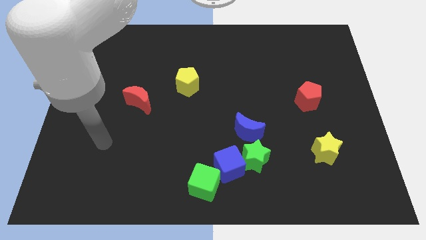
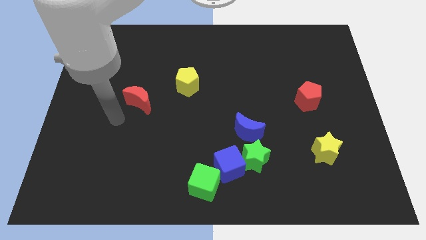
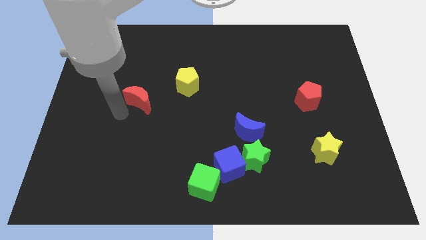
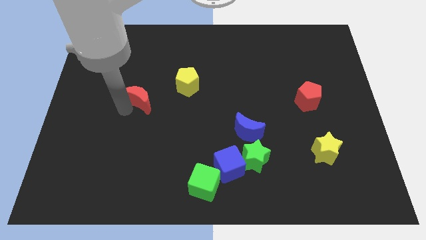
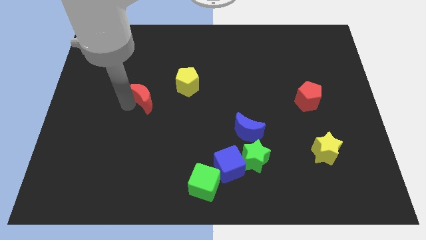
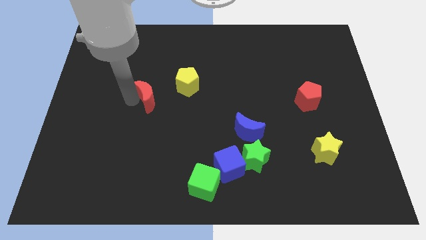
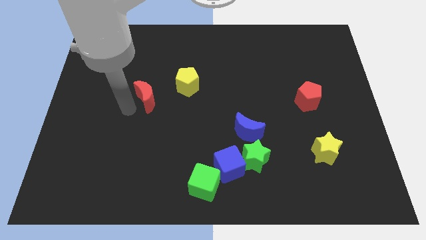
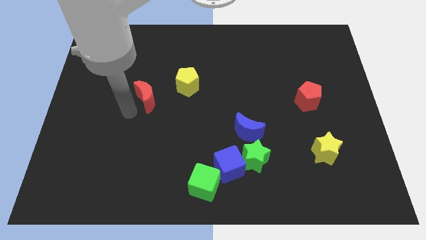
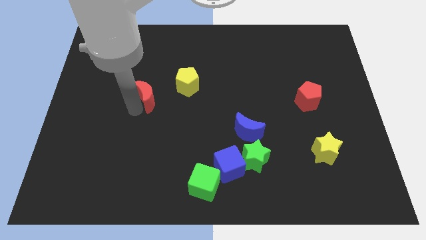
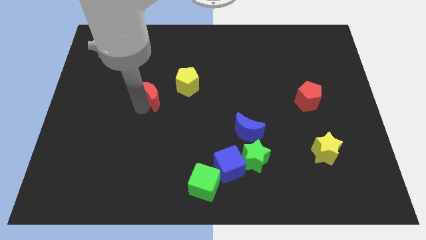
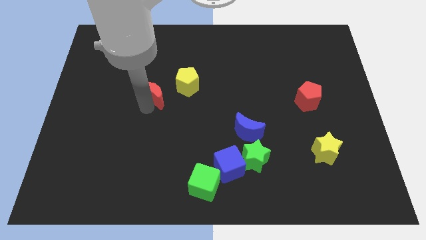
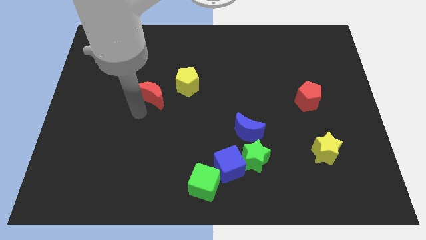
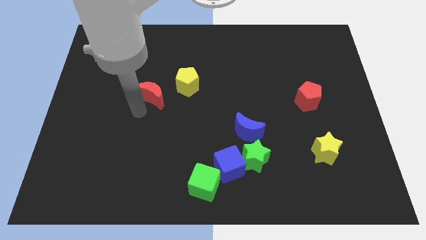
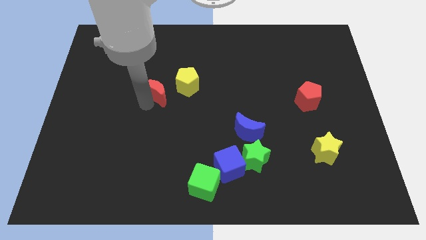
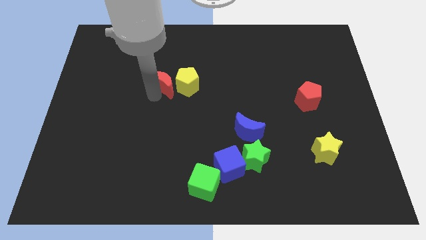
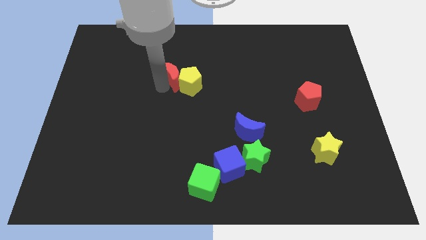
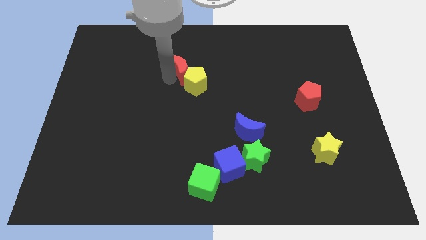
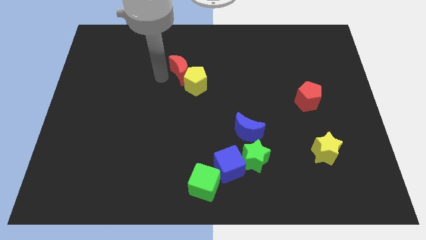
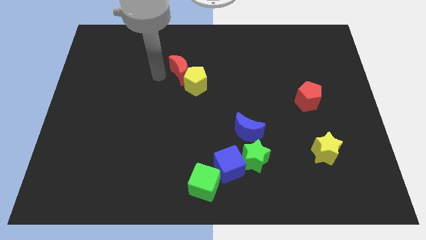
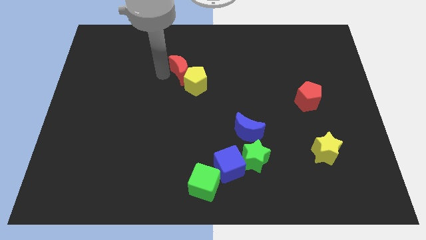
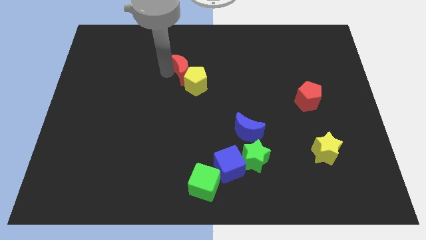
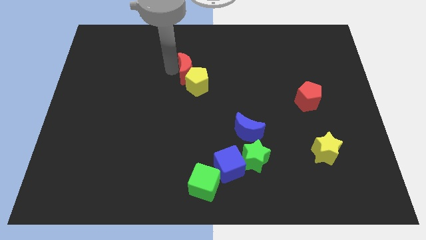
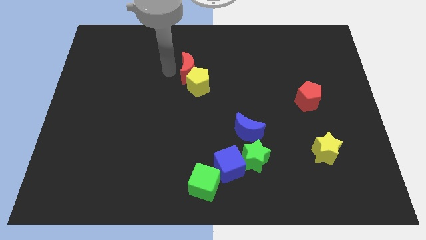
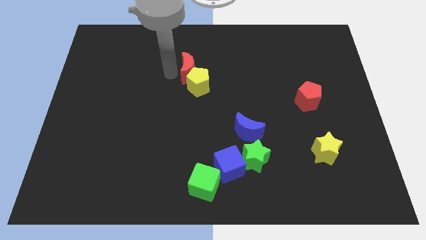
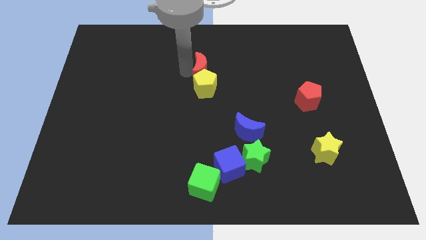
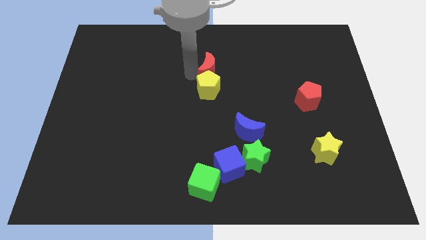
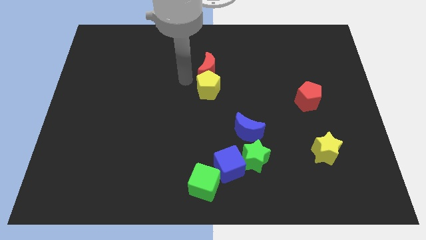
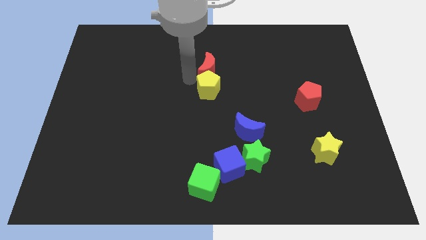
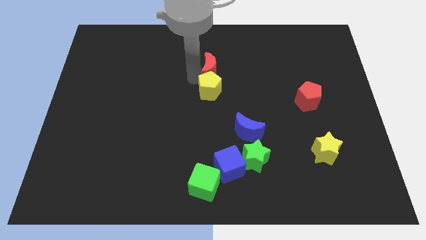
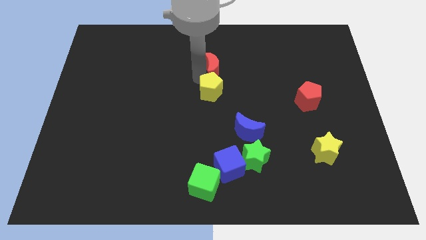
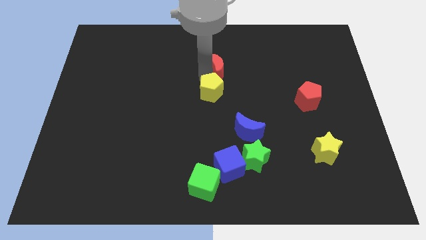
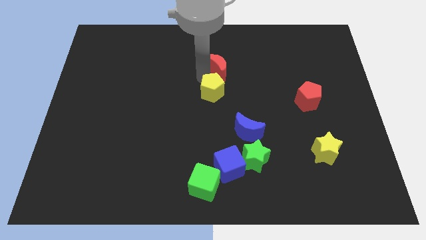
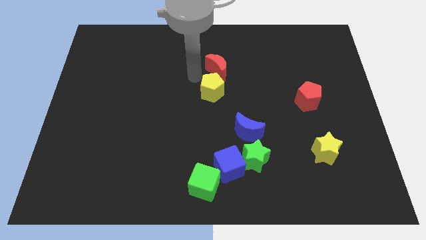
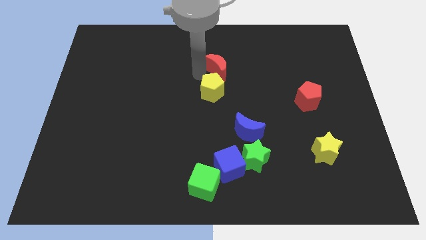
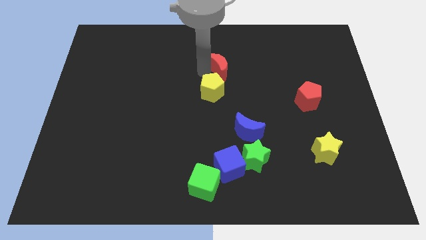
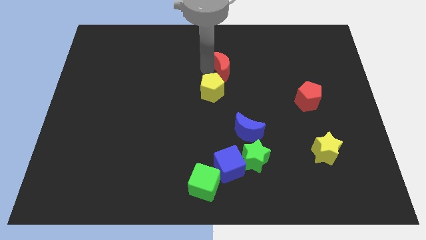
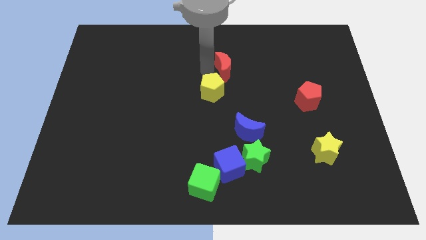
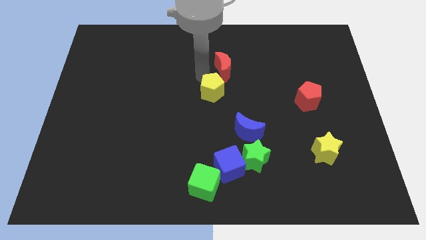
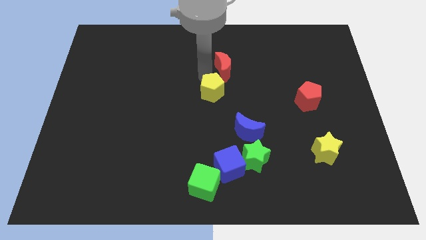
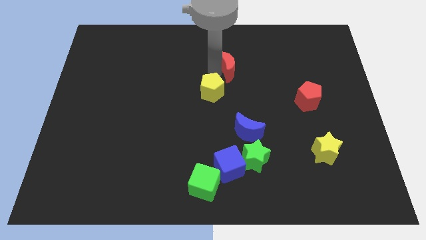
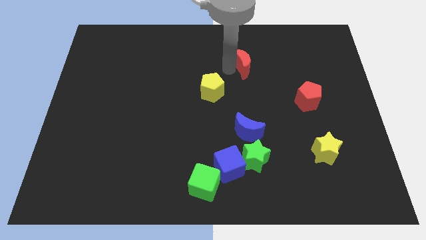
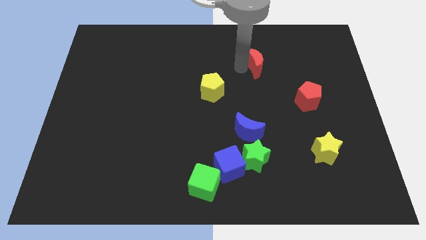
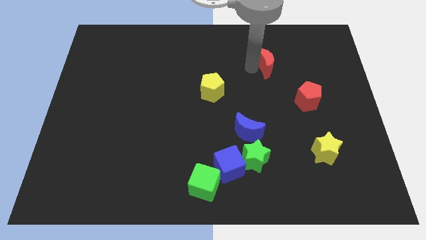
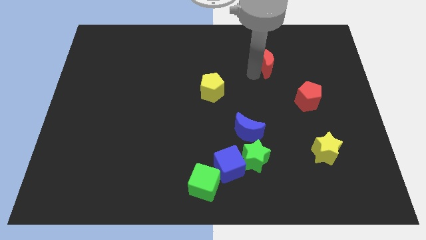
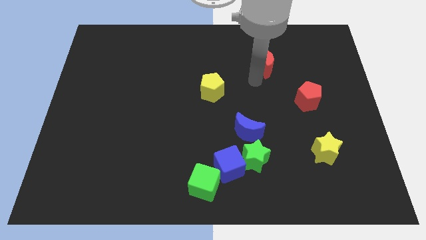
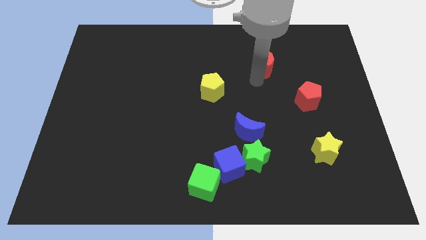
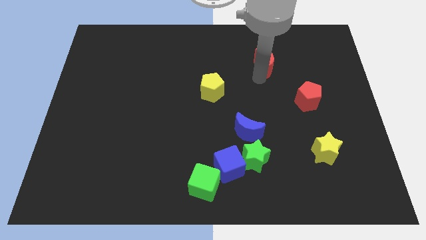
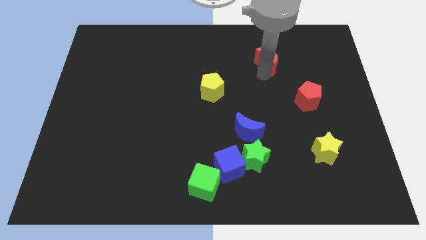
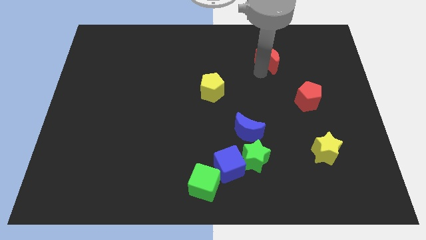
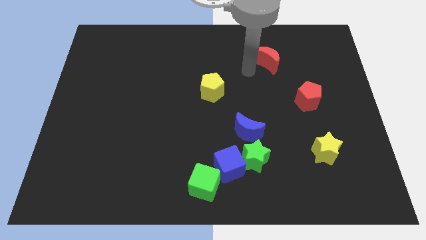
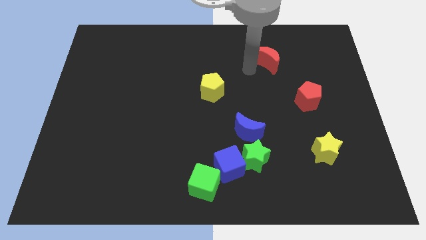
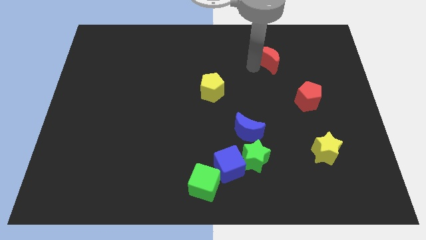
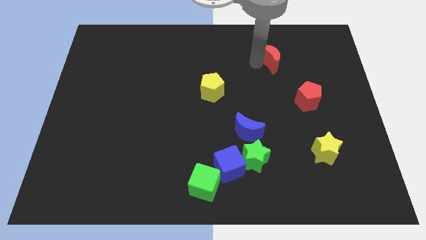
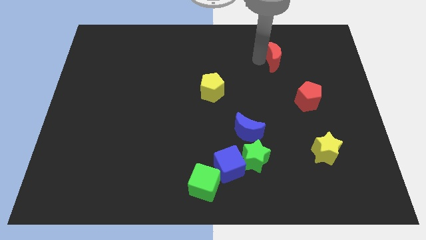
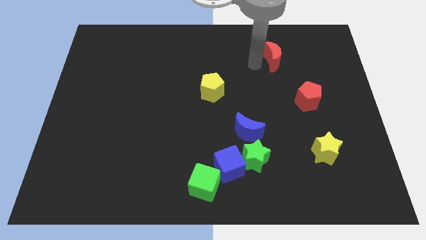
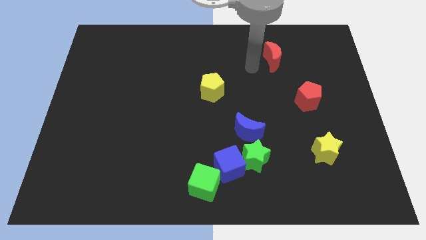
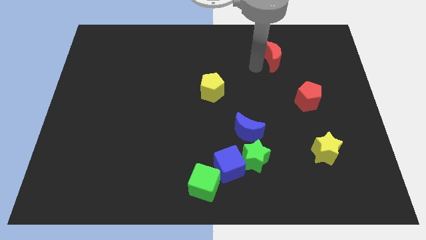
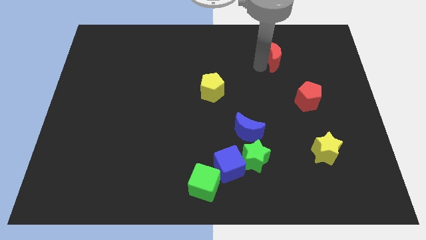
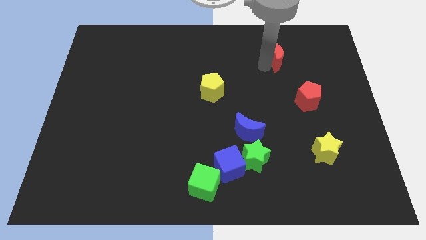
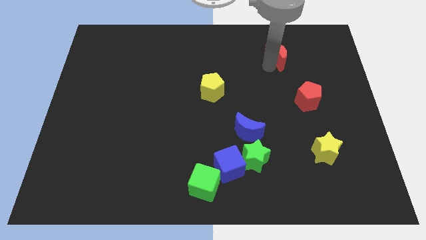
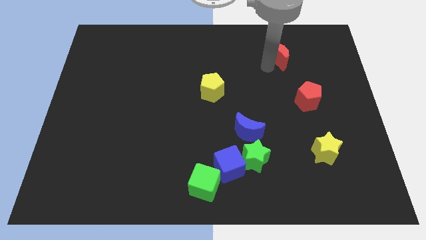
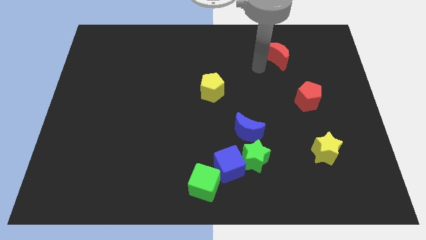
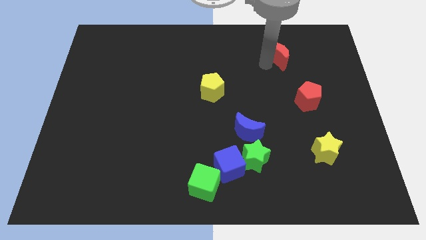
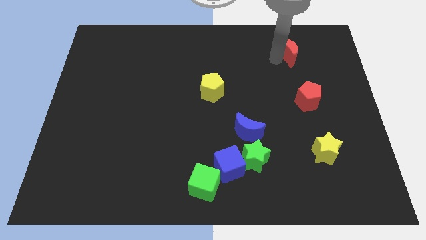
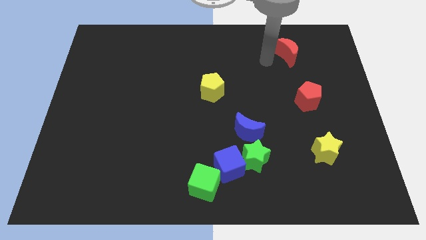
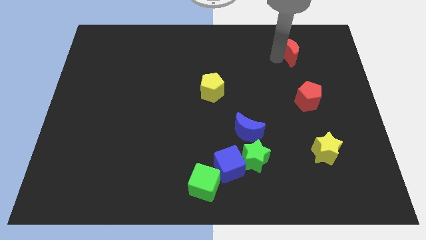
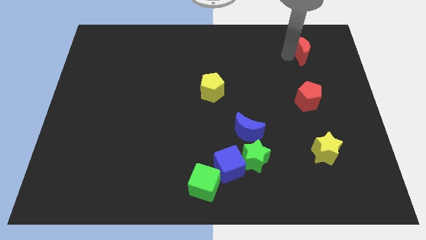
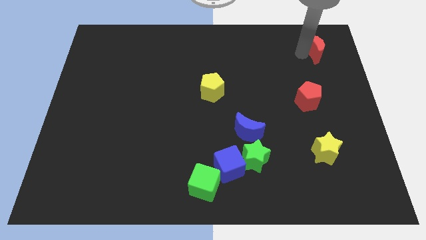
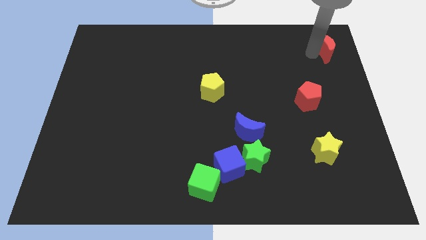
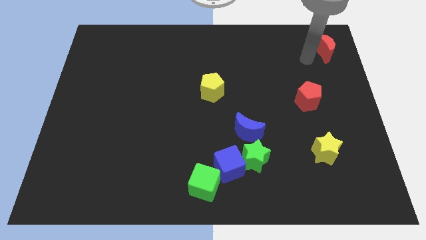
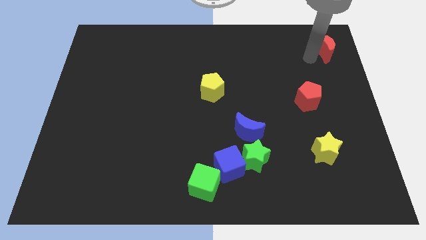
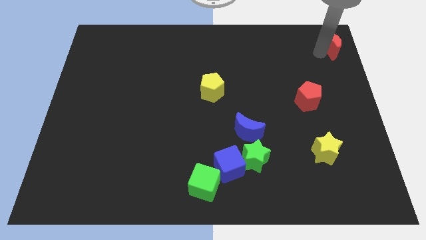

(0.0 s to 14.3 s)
move the red moon to the top right corner
